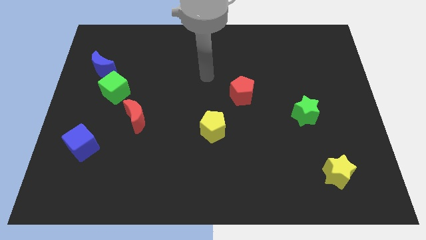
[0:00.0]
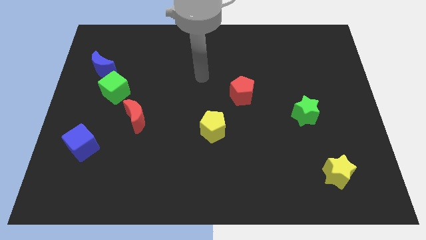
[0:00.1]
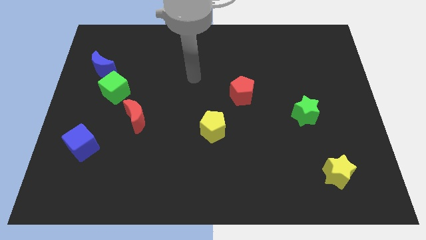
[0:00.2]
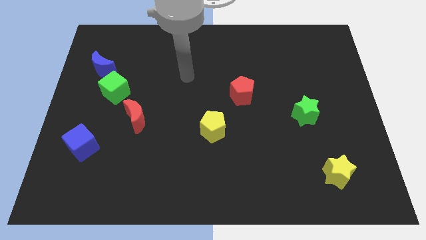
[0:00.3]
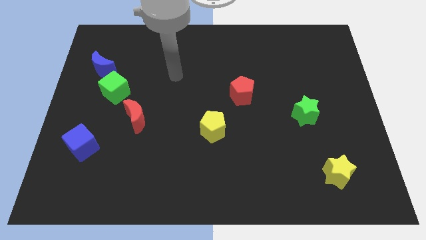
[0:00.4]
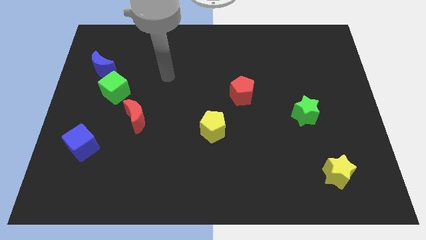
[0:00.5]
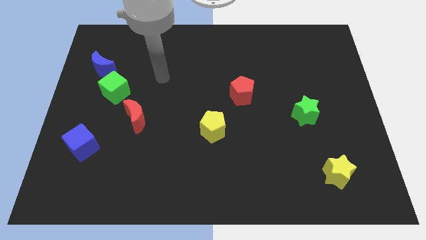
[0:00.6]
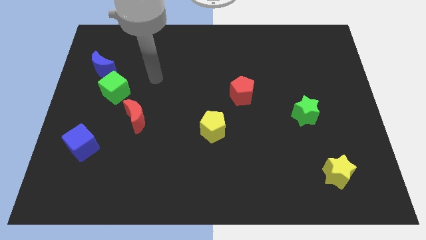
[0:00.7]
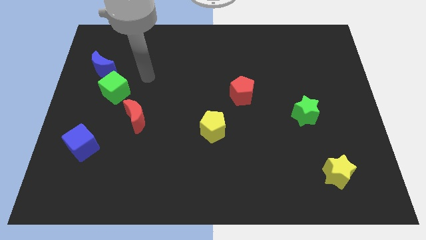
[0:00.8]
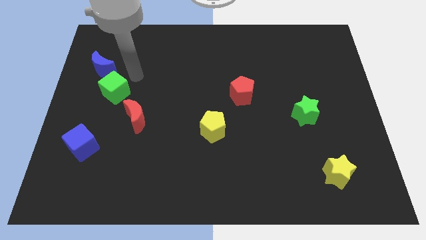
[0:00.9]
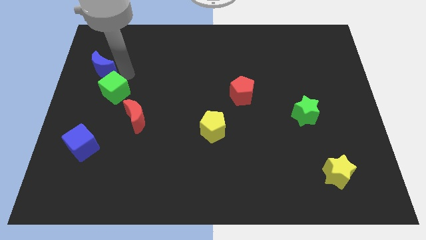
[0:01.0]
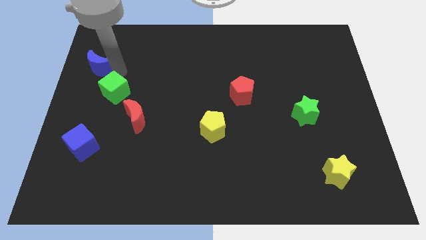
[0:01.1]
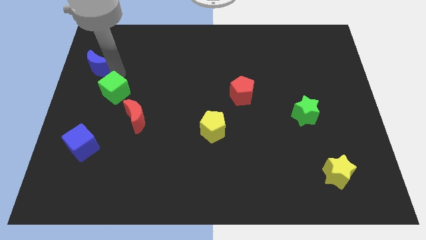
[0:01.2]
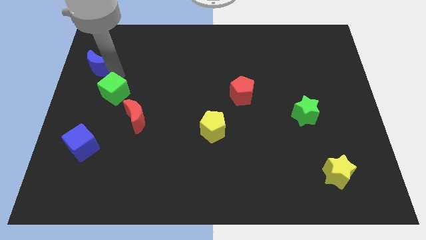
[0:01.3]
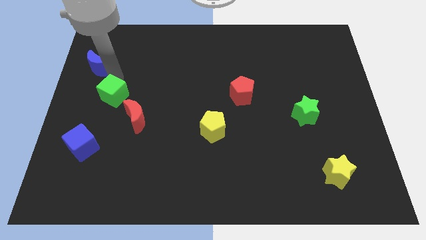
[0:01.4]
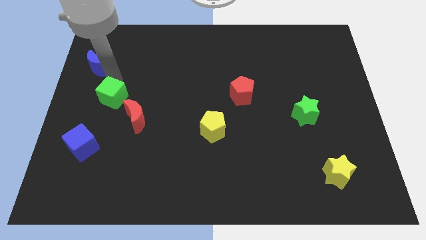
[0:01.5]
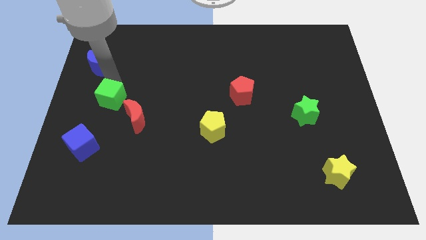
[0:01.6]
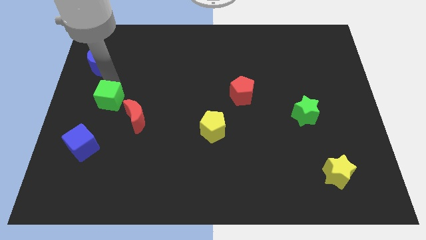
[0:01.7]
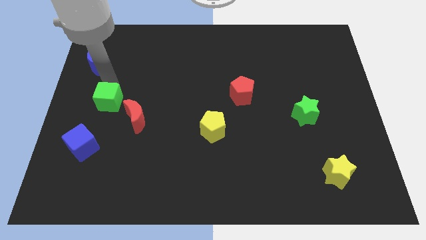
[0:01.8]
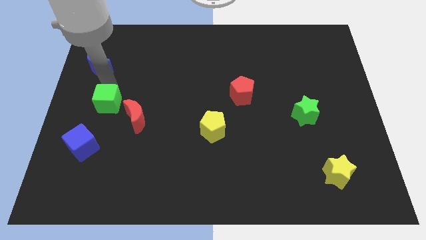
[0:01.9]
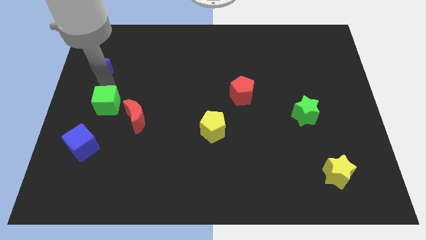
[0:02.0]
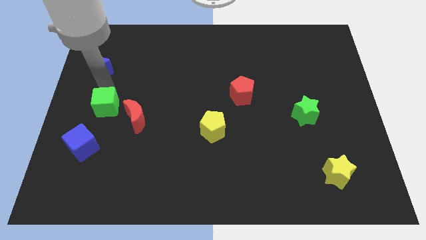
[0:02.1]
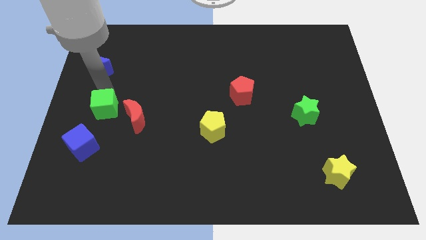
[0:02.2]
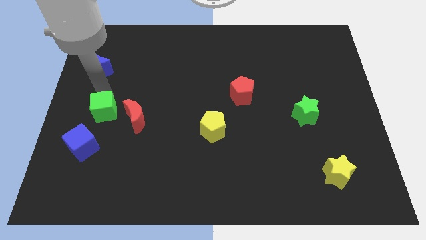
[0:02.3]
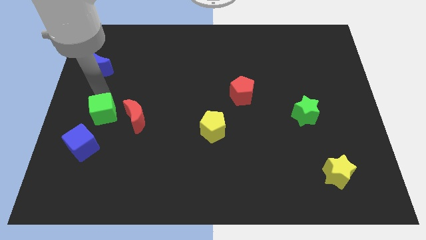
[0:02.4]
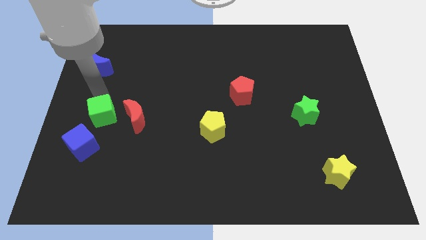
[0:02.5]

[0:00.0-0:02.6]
push the green cube a little bit downwards

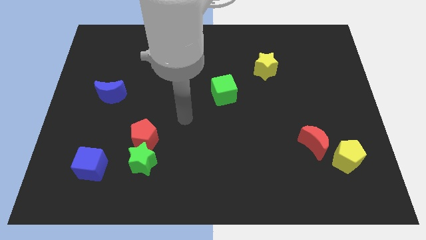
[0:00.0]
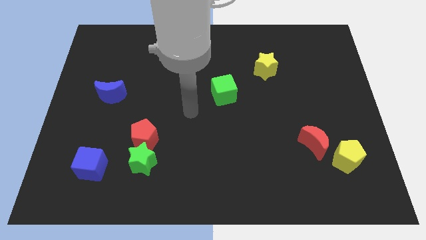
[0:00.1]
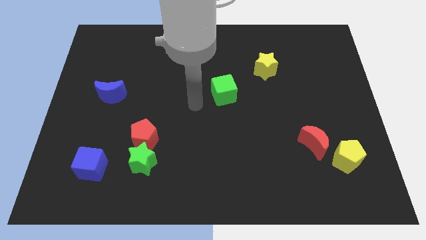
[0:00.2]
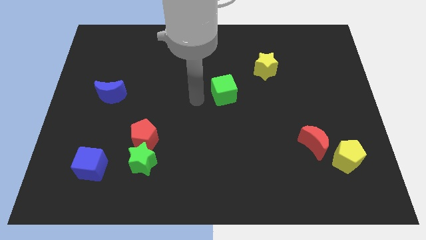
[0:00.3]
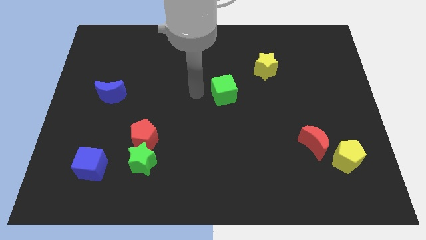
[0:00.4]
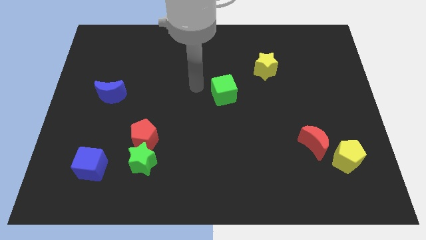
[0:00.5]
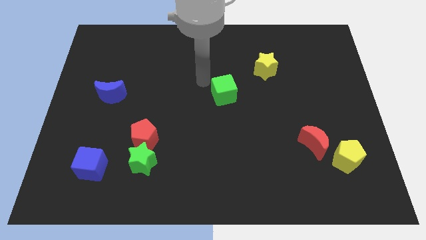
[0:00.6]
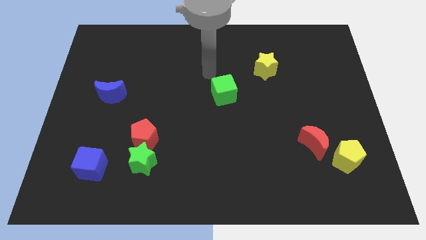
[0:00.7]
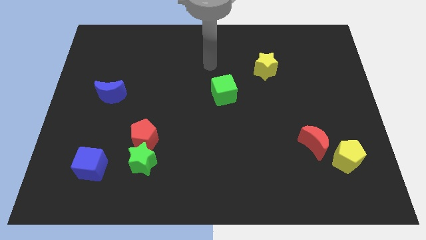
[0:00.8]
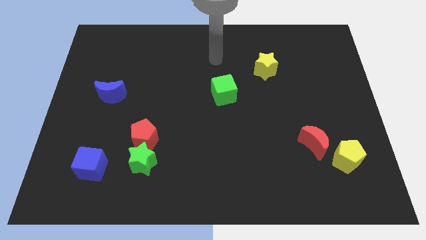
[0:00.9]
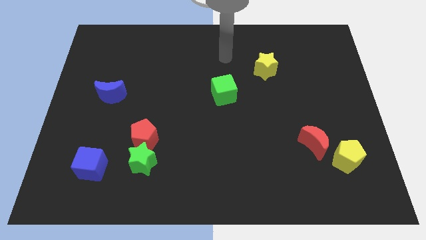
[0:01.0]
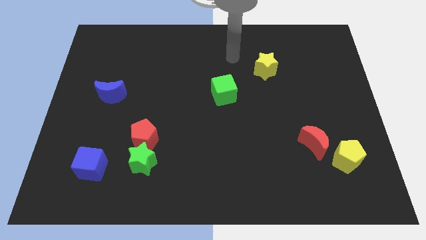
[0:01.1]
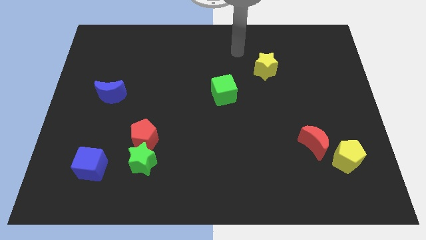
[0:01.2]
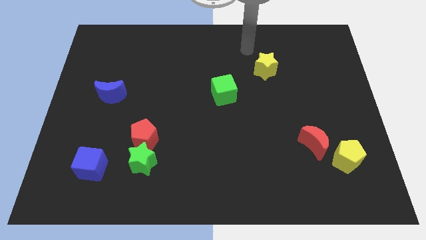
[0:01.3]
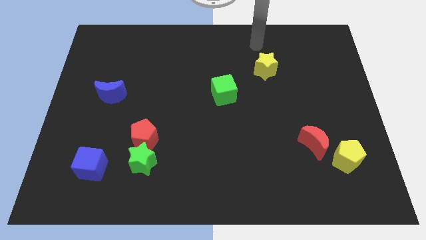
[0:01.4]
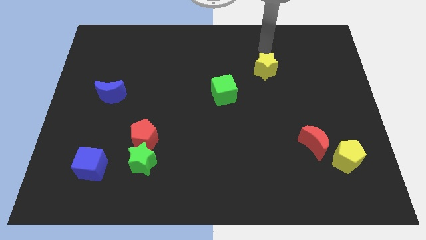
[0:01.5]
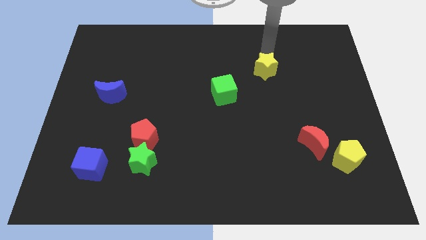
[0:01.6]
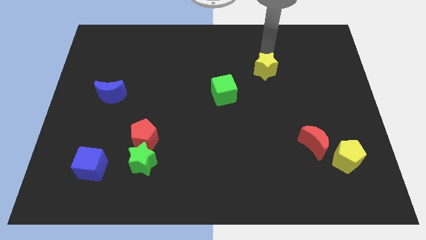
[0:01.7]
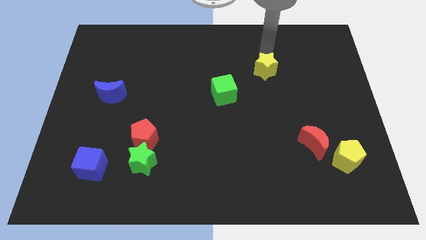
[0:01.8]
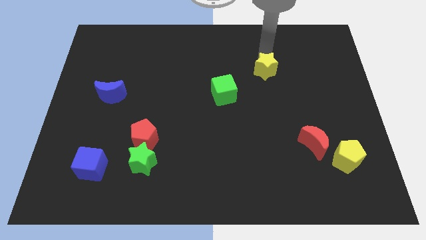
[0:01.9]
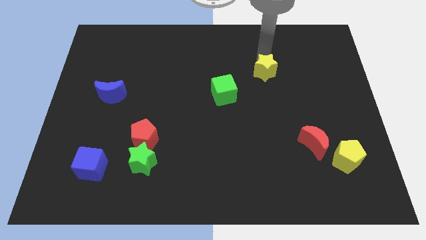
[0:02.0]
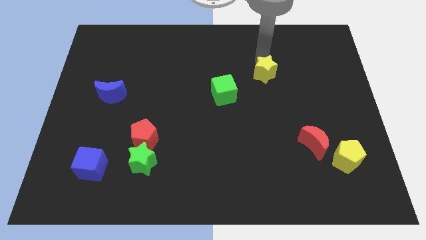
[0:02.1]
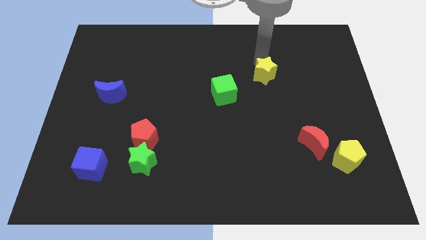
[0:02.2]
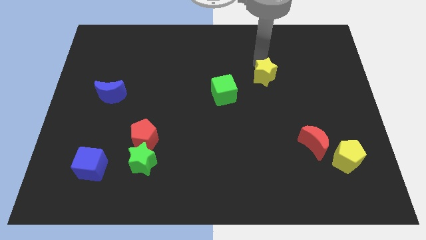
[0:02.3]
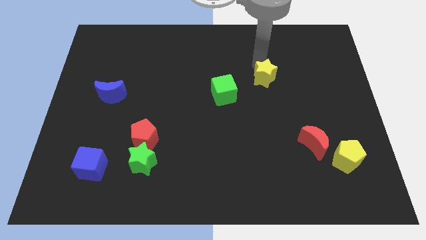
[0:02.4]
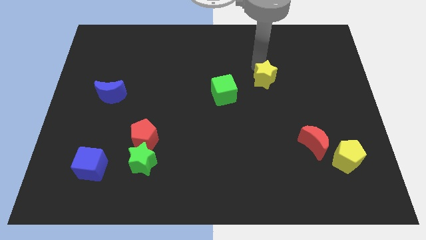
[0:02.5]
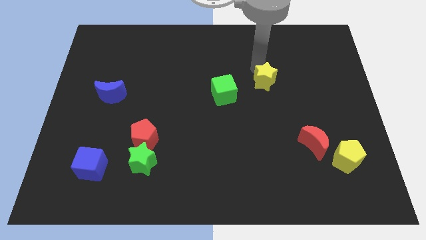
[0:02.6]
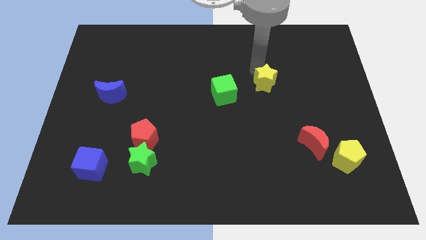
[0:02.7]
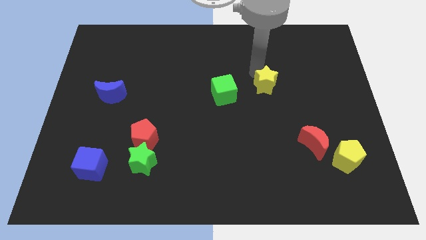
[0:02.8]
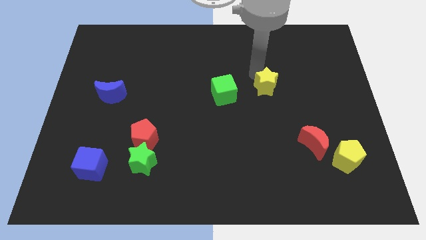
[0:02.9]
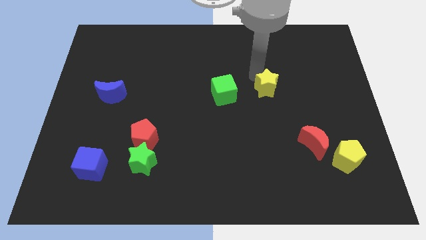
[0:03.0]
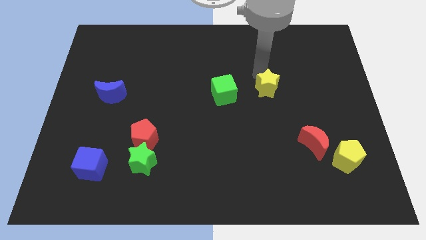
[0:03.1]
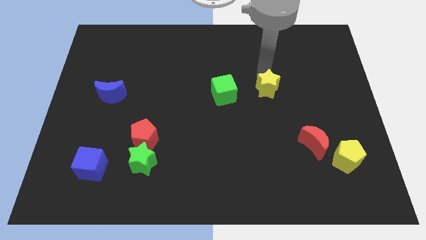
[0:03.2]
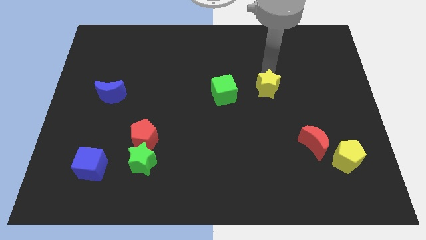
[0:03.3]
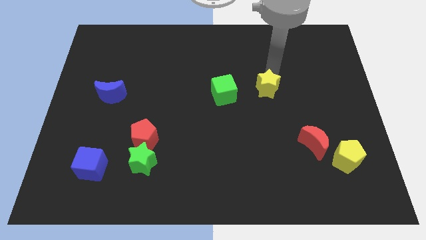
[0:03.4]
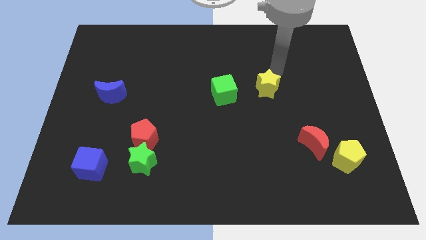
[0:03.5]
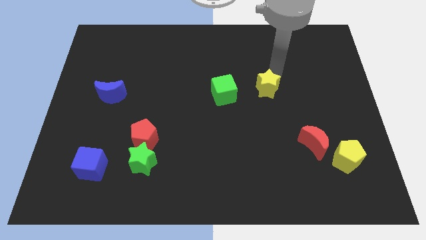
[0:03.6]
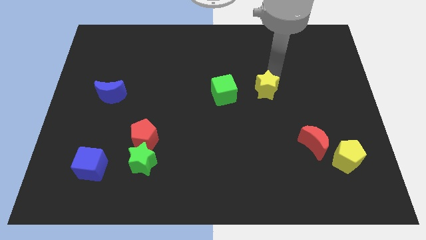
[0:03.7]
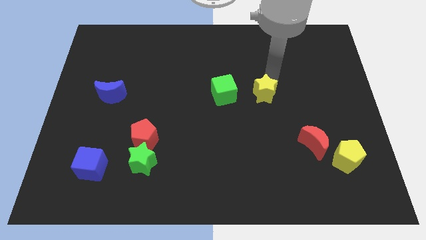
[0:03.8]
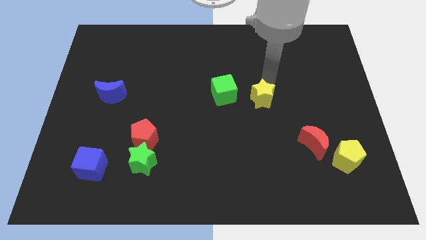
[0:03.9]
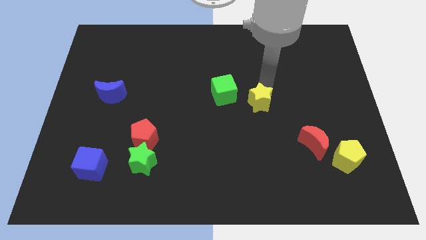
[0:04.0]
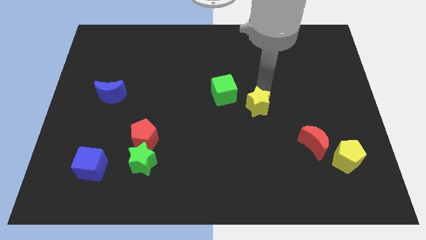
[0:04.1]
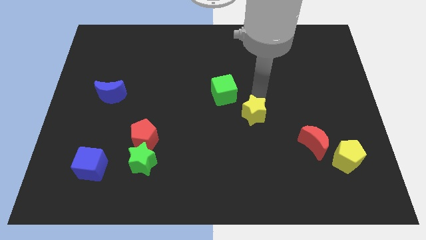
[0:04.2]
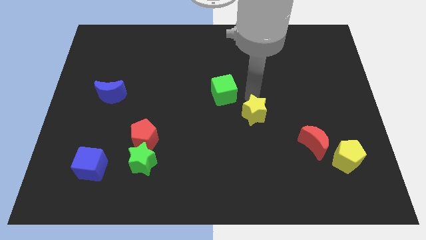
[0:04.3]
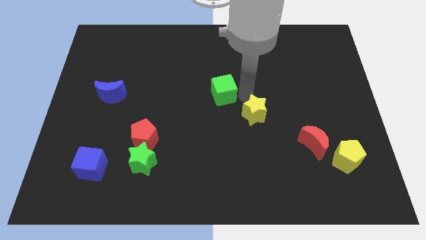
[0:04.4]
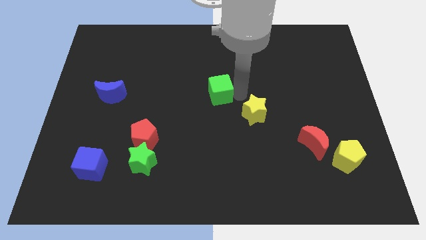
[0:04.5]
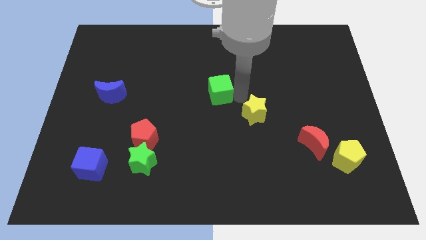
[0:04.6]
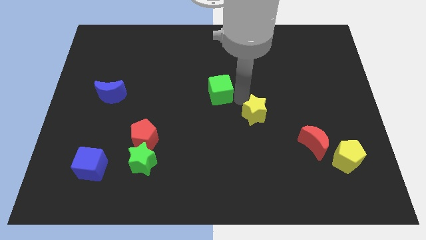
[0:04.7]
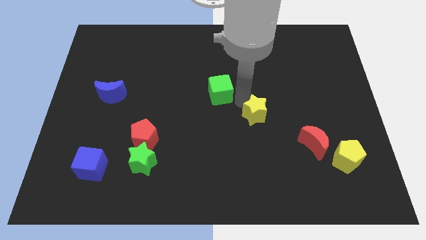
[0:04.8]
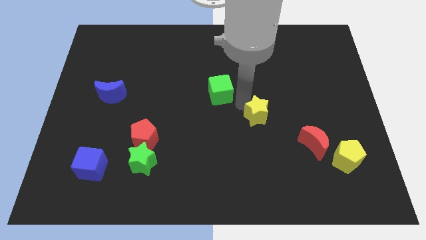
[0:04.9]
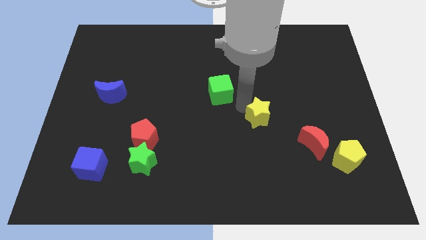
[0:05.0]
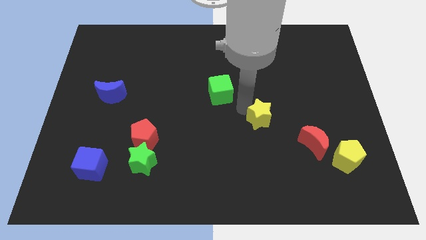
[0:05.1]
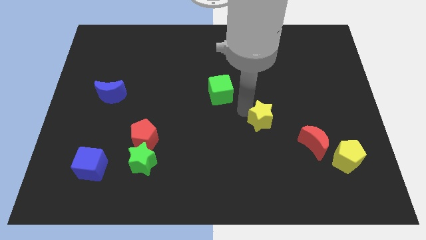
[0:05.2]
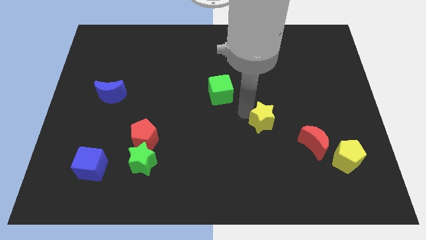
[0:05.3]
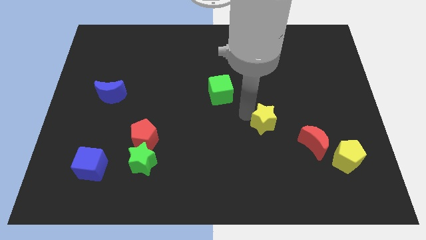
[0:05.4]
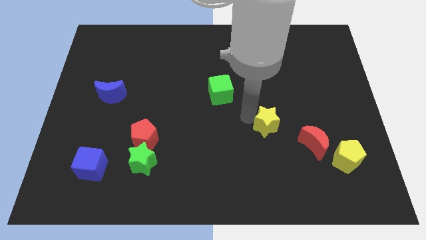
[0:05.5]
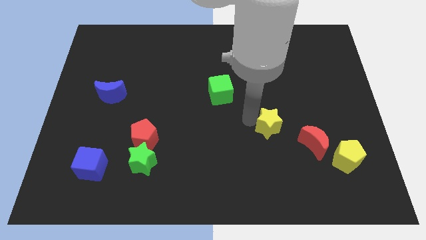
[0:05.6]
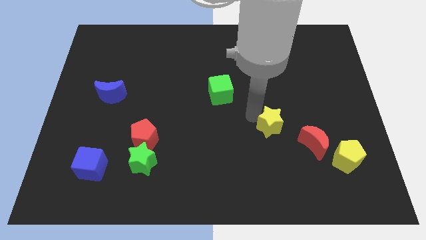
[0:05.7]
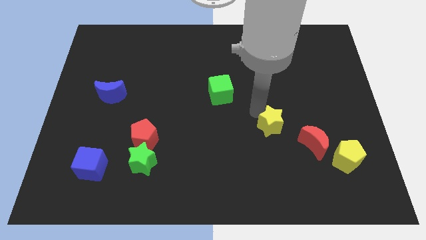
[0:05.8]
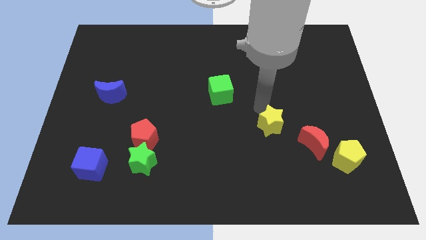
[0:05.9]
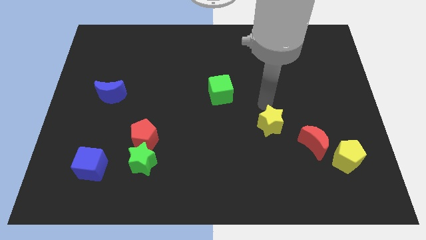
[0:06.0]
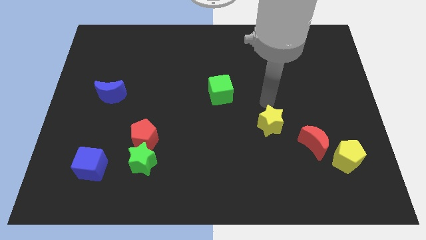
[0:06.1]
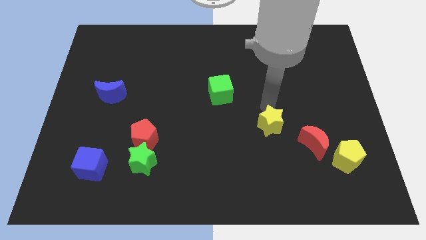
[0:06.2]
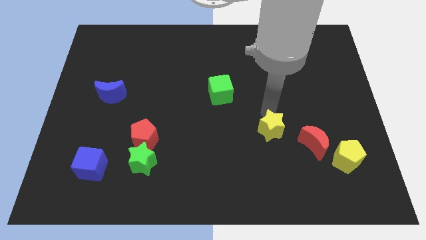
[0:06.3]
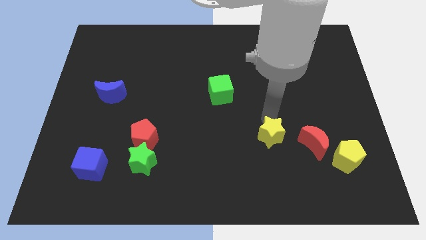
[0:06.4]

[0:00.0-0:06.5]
move the yellow star downwards
